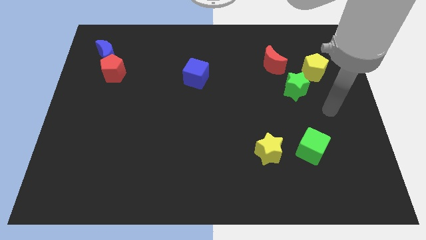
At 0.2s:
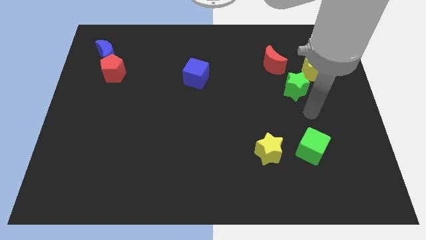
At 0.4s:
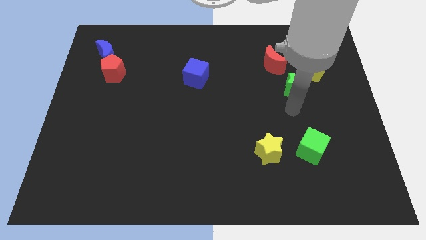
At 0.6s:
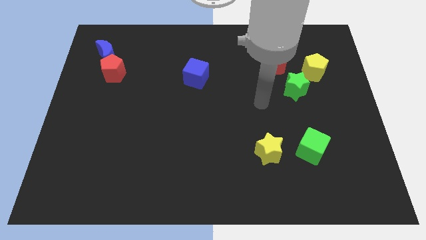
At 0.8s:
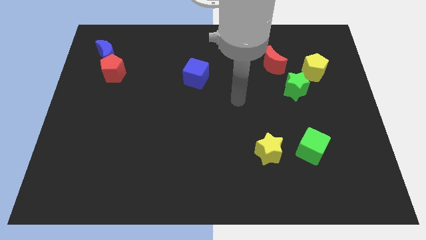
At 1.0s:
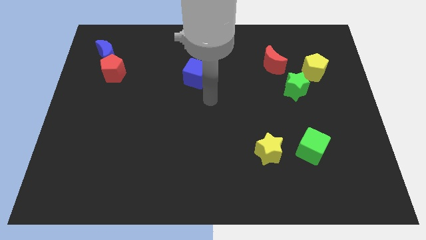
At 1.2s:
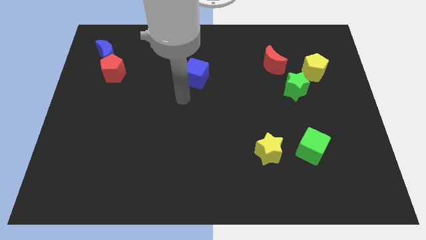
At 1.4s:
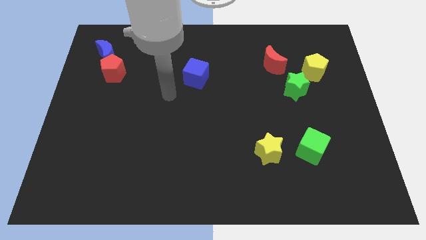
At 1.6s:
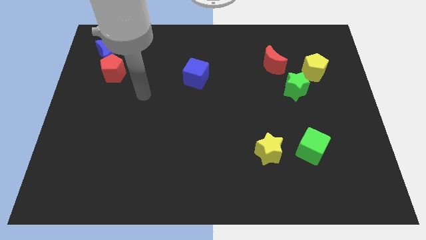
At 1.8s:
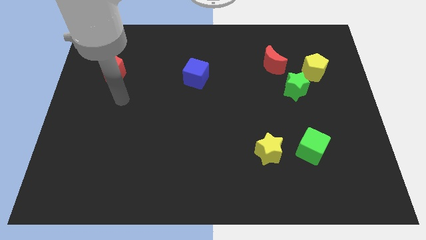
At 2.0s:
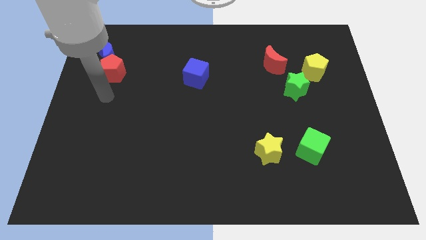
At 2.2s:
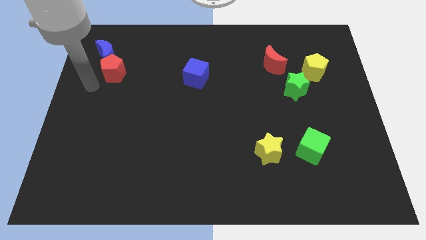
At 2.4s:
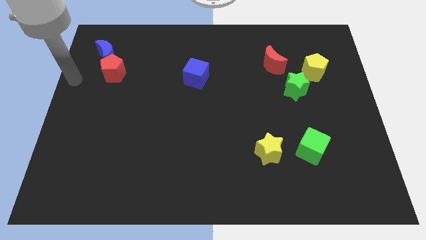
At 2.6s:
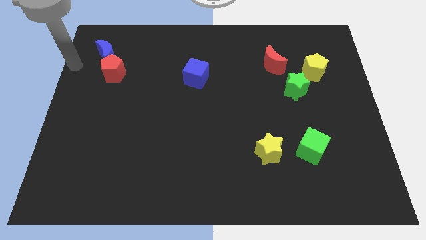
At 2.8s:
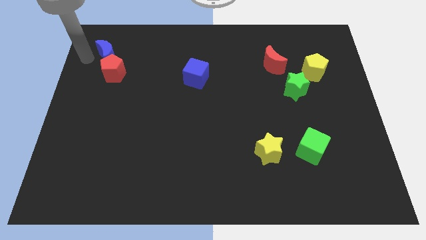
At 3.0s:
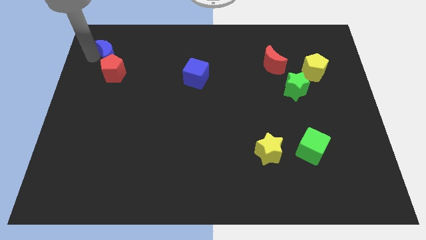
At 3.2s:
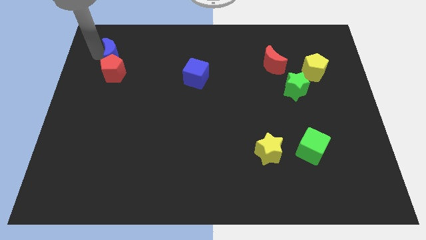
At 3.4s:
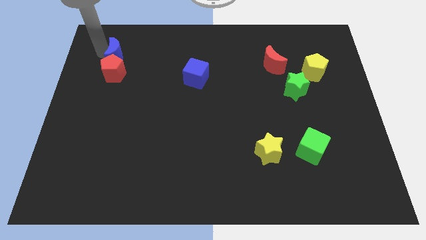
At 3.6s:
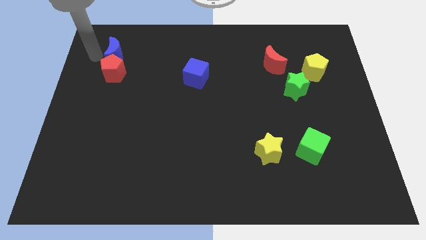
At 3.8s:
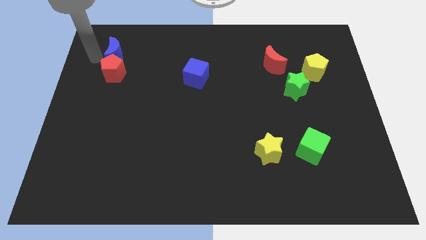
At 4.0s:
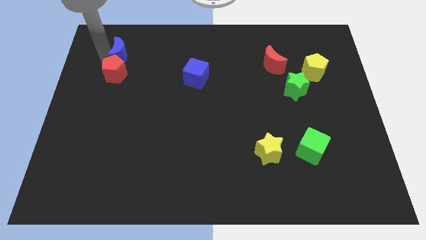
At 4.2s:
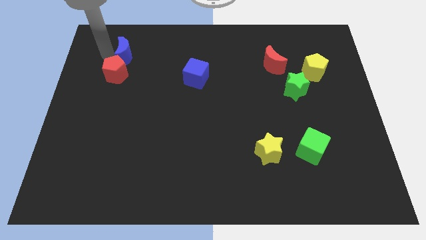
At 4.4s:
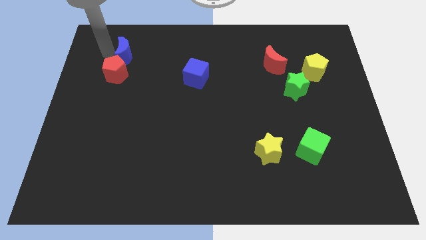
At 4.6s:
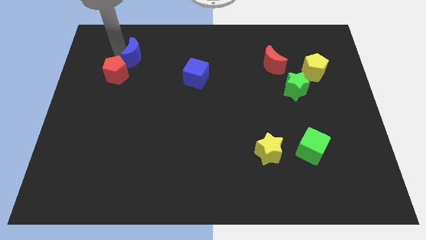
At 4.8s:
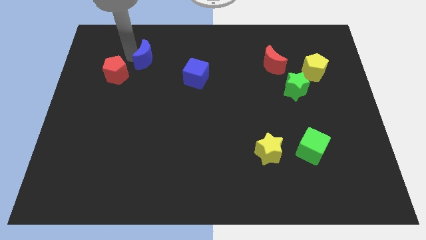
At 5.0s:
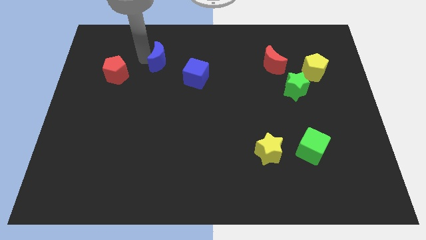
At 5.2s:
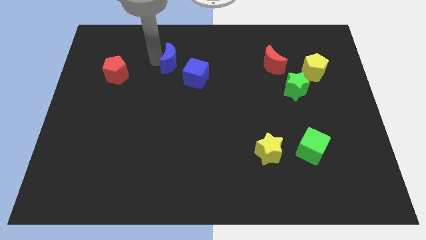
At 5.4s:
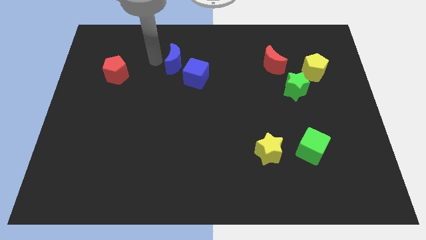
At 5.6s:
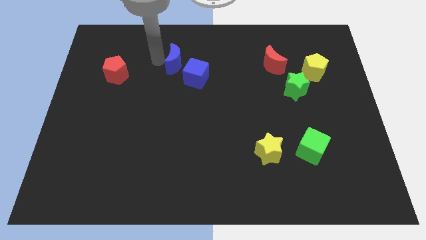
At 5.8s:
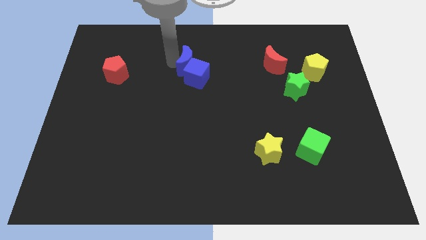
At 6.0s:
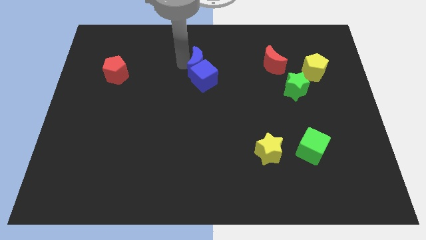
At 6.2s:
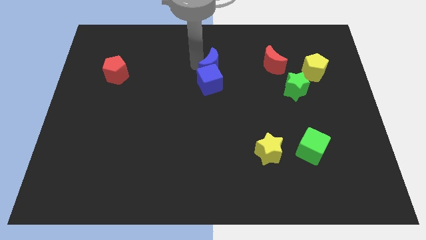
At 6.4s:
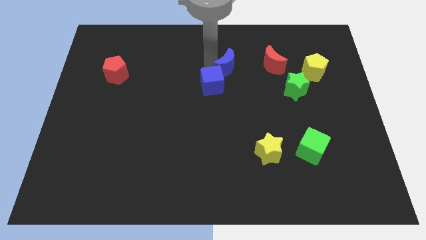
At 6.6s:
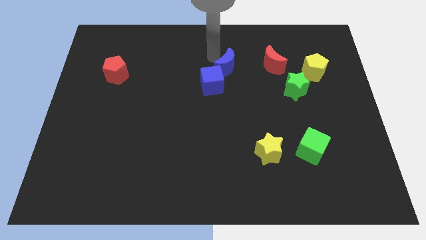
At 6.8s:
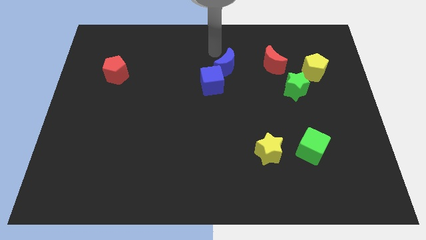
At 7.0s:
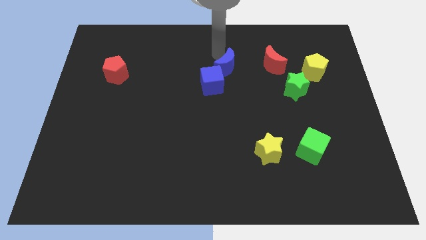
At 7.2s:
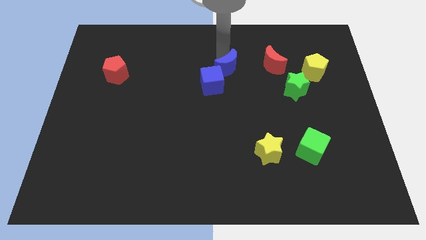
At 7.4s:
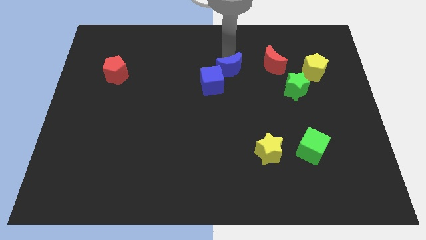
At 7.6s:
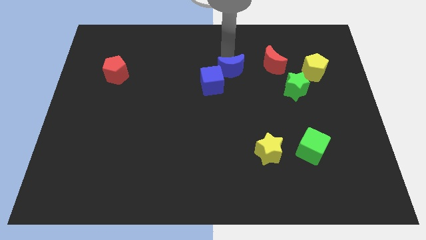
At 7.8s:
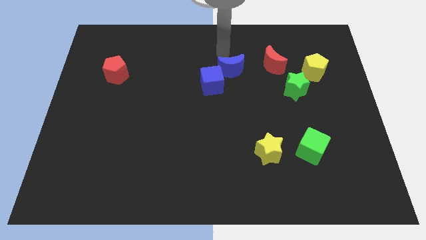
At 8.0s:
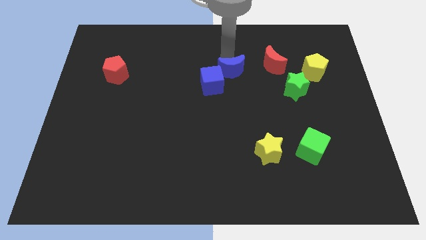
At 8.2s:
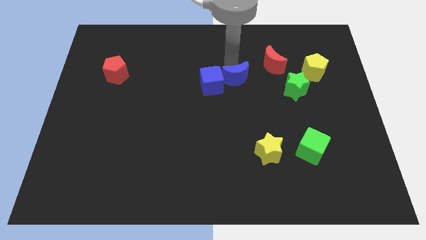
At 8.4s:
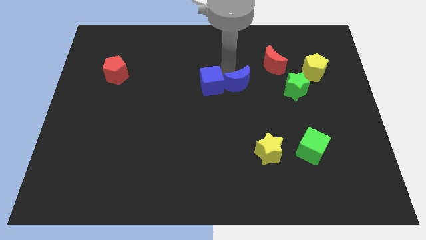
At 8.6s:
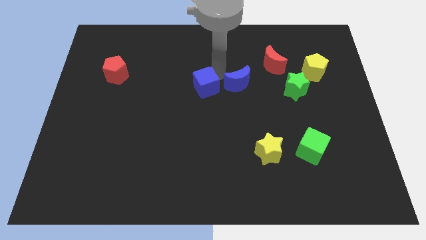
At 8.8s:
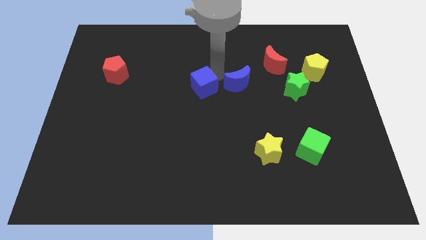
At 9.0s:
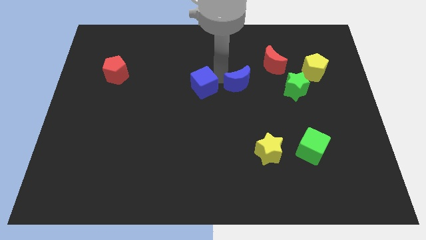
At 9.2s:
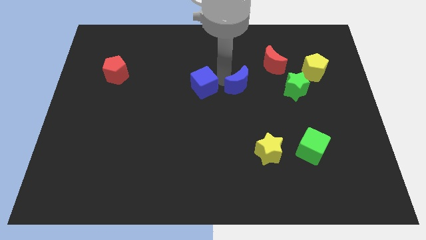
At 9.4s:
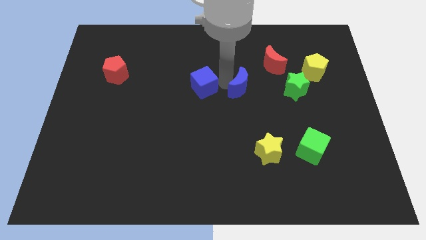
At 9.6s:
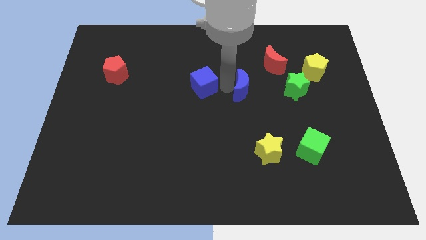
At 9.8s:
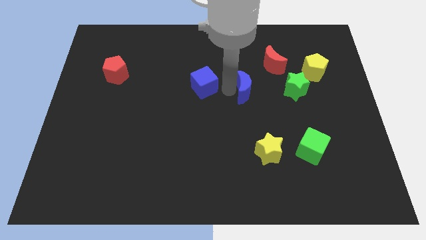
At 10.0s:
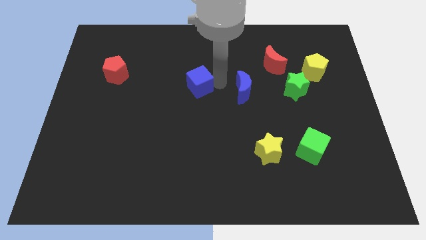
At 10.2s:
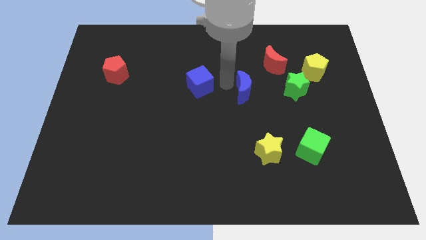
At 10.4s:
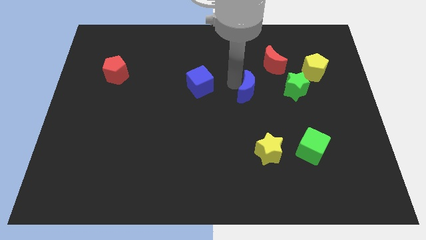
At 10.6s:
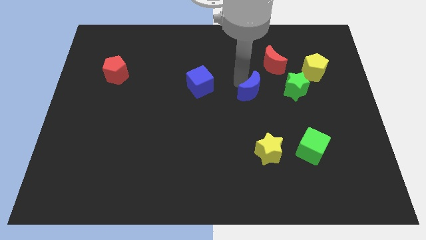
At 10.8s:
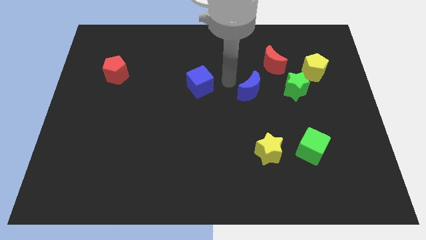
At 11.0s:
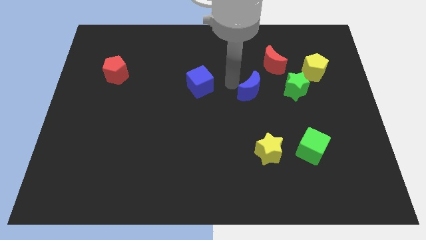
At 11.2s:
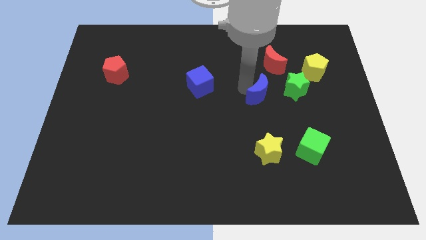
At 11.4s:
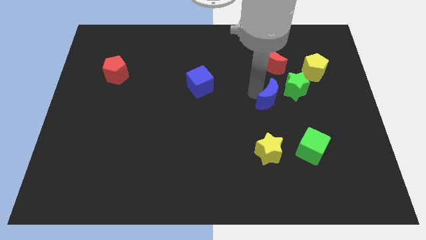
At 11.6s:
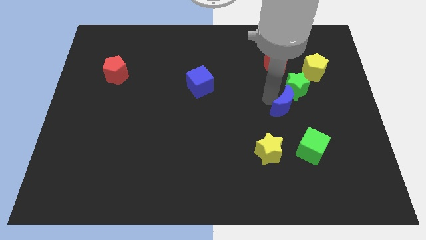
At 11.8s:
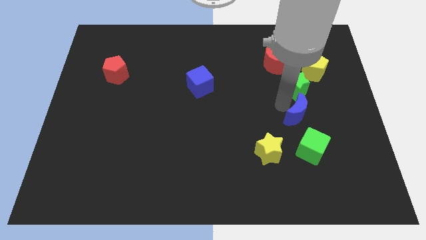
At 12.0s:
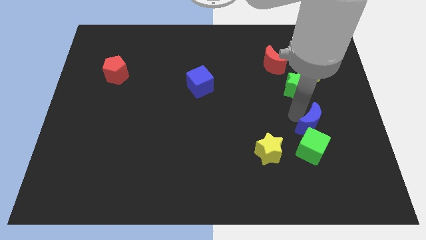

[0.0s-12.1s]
push the blue moon to the top right side of the green cube

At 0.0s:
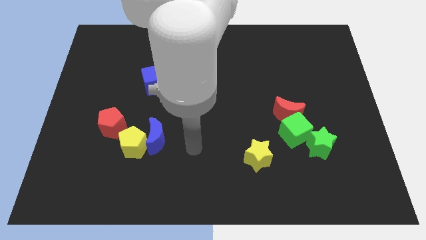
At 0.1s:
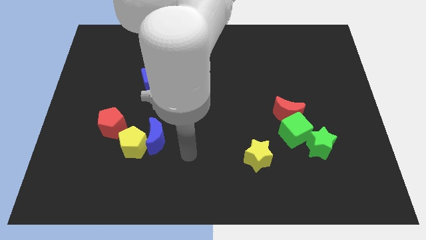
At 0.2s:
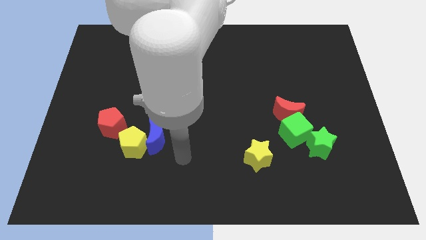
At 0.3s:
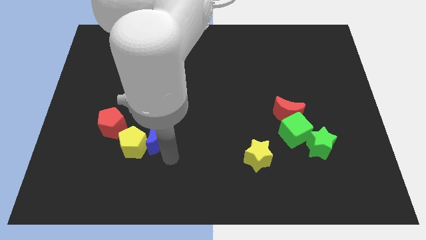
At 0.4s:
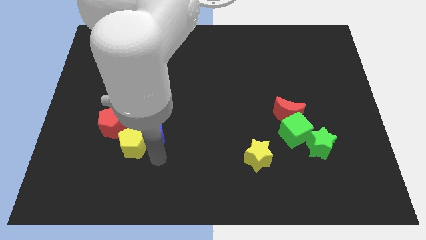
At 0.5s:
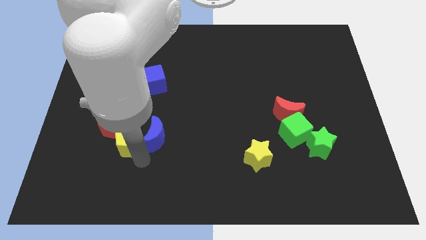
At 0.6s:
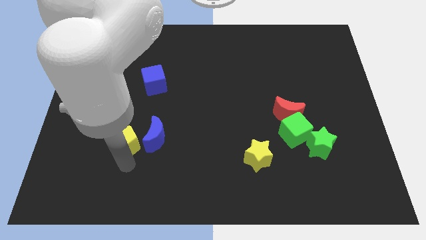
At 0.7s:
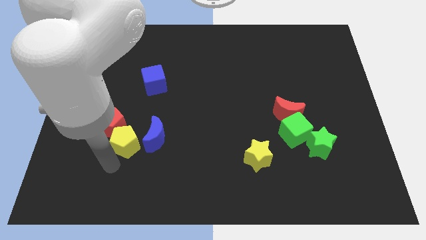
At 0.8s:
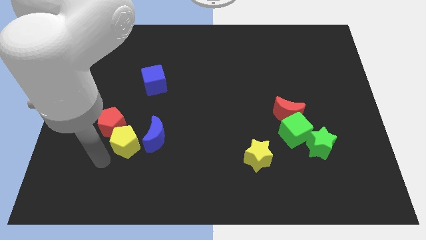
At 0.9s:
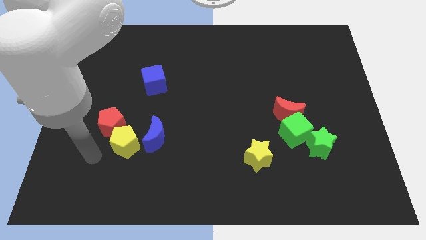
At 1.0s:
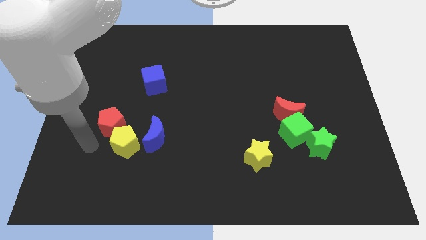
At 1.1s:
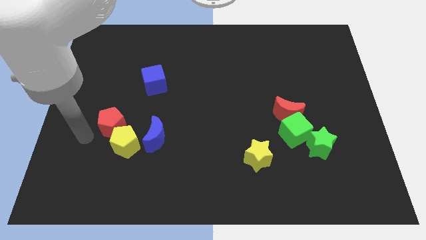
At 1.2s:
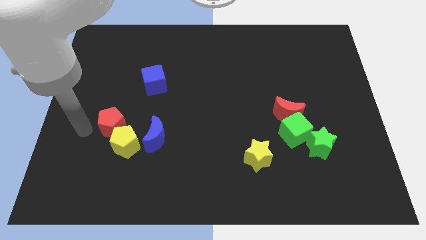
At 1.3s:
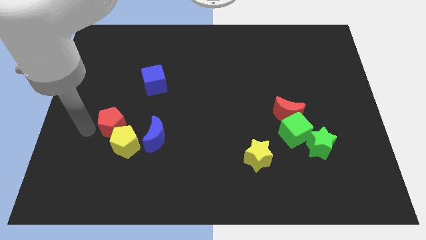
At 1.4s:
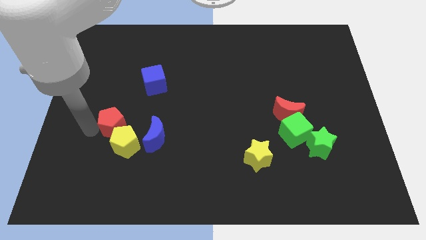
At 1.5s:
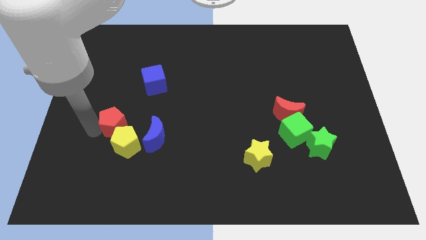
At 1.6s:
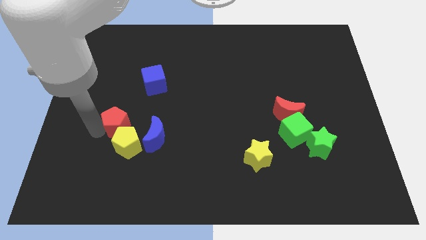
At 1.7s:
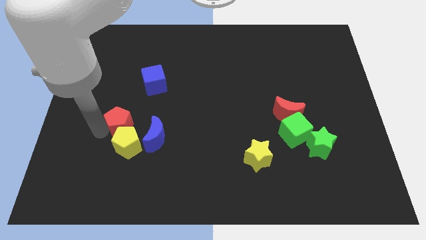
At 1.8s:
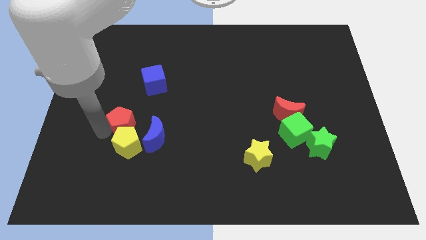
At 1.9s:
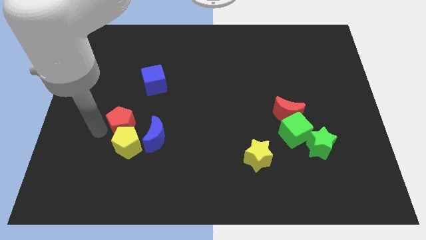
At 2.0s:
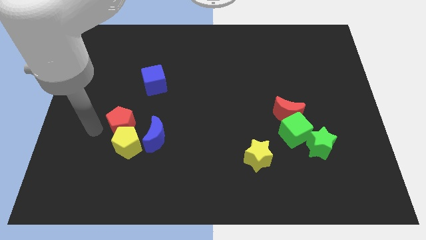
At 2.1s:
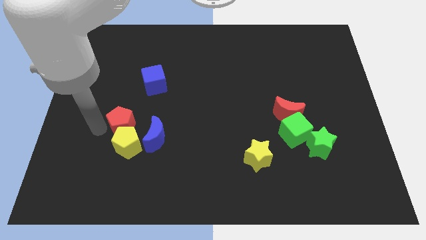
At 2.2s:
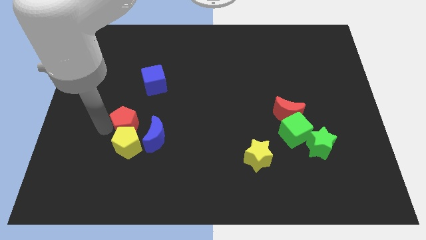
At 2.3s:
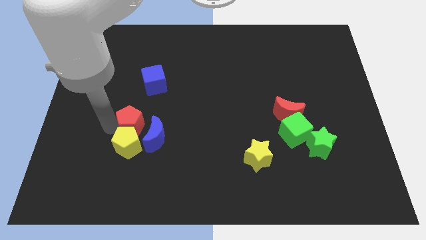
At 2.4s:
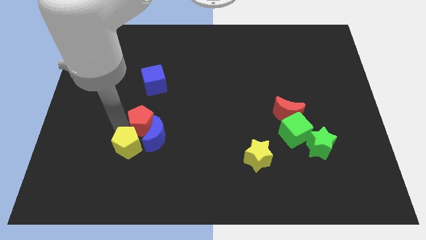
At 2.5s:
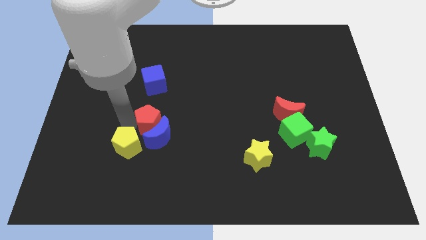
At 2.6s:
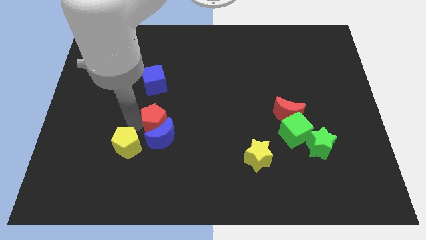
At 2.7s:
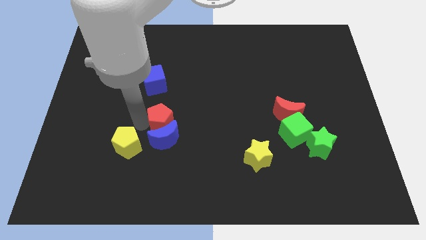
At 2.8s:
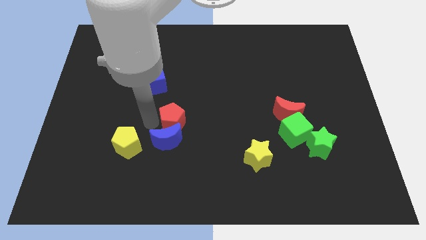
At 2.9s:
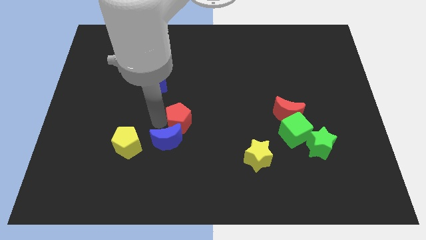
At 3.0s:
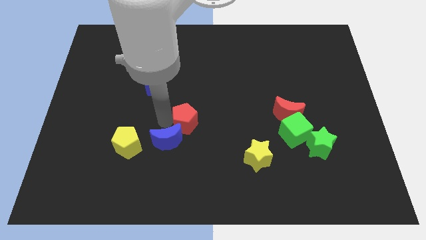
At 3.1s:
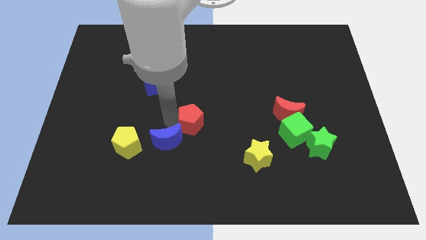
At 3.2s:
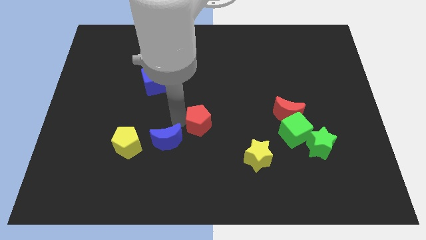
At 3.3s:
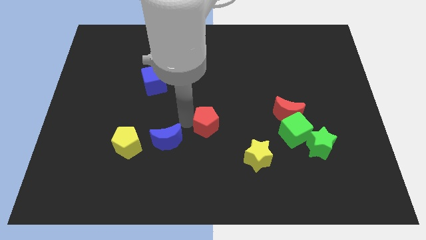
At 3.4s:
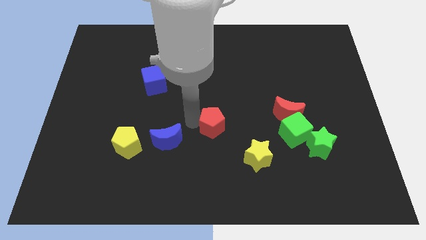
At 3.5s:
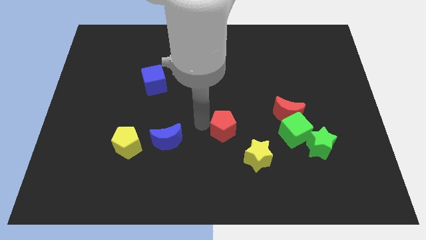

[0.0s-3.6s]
slide the red pentagon just left of the green cube
